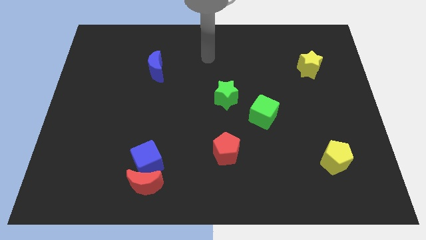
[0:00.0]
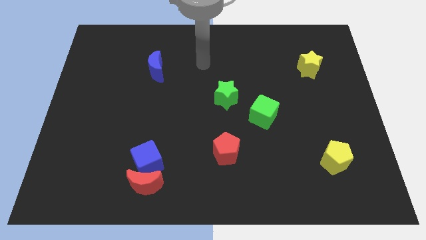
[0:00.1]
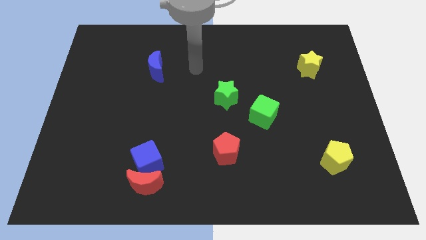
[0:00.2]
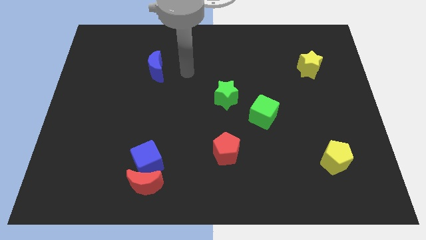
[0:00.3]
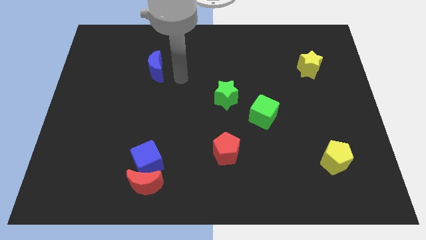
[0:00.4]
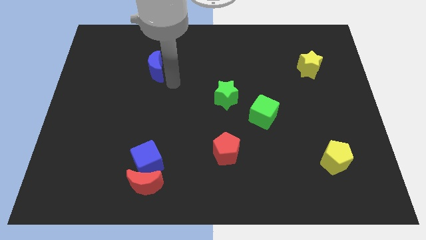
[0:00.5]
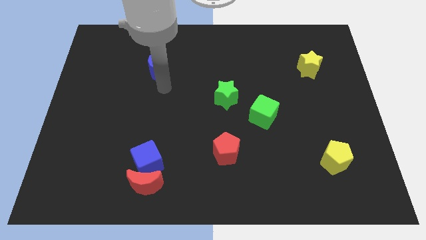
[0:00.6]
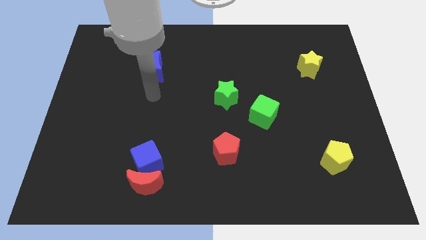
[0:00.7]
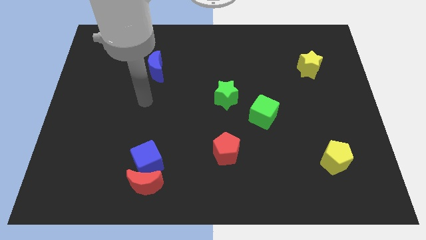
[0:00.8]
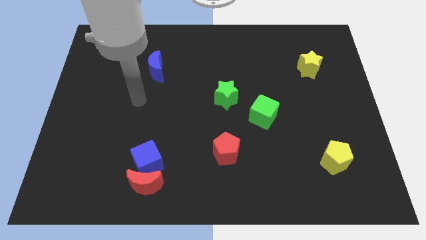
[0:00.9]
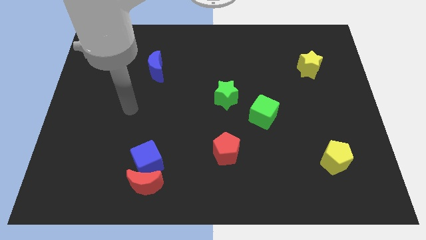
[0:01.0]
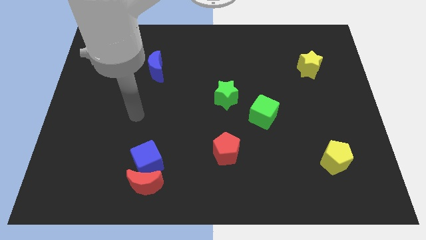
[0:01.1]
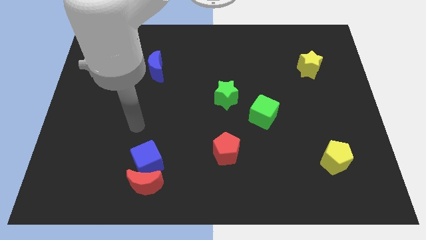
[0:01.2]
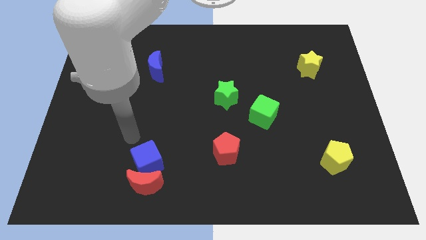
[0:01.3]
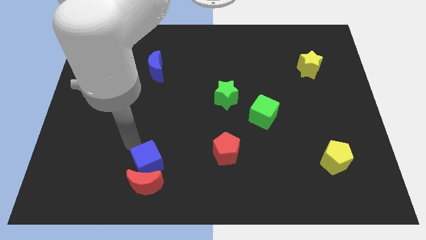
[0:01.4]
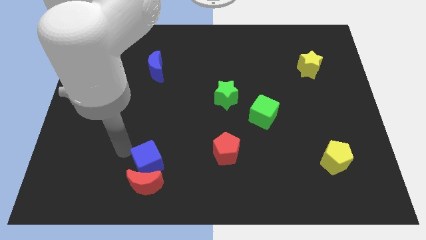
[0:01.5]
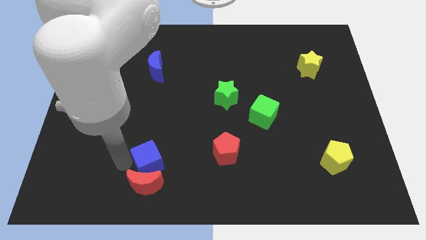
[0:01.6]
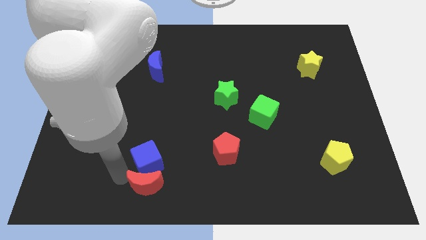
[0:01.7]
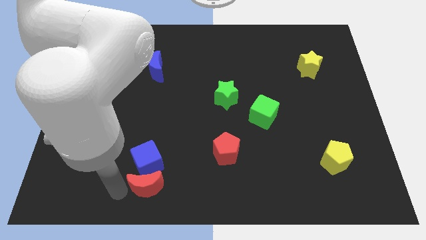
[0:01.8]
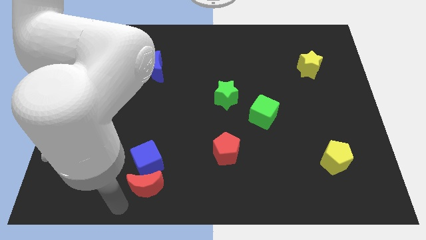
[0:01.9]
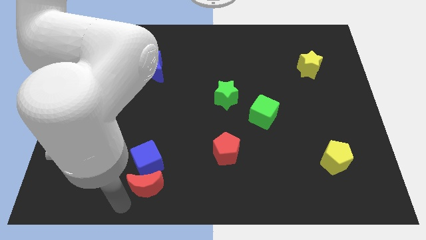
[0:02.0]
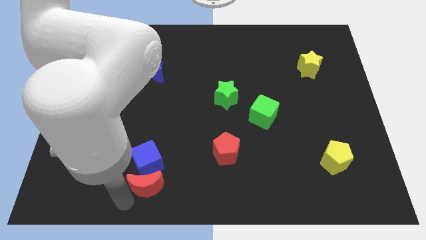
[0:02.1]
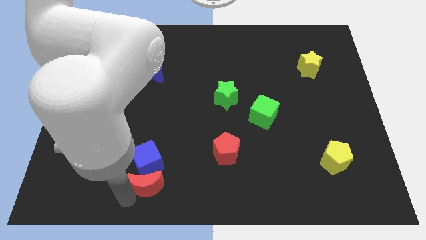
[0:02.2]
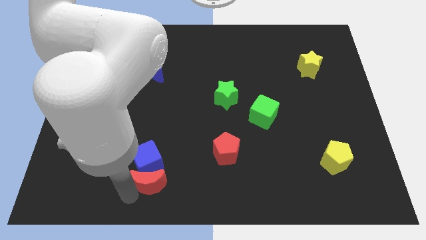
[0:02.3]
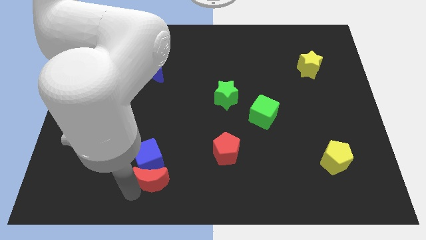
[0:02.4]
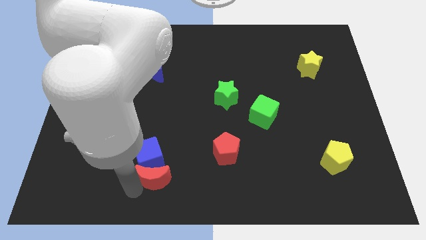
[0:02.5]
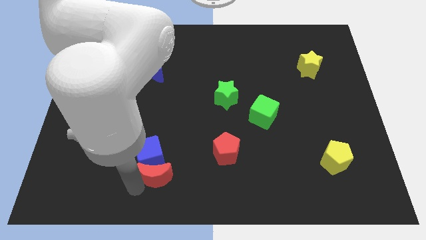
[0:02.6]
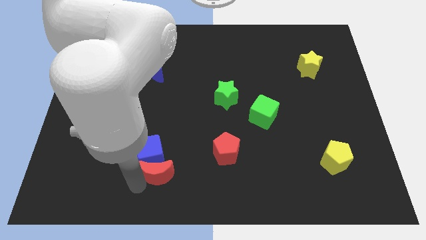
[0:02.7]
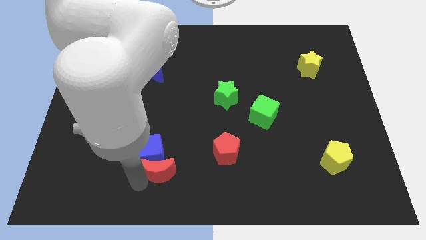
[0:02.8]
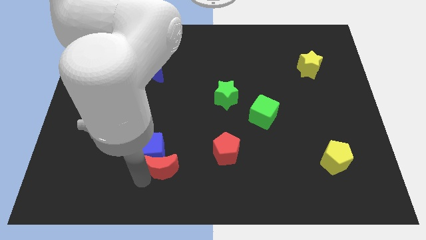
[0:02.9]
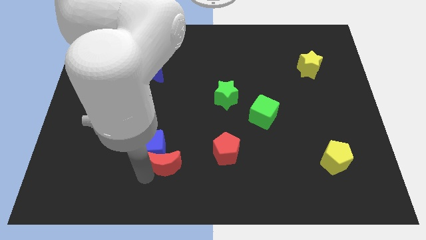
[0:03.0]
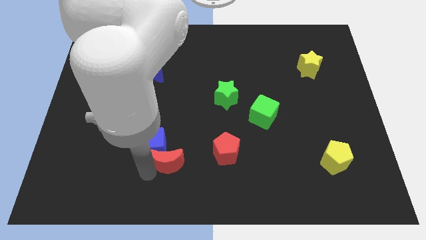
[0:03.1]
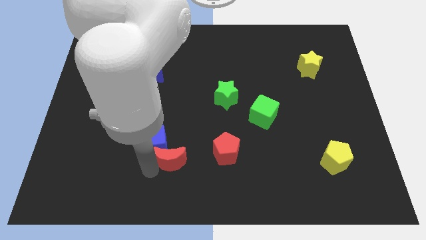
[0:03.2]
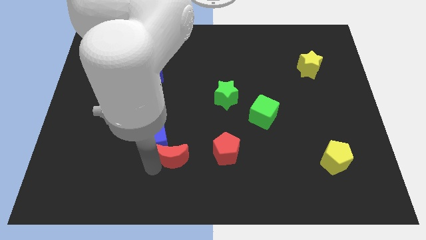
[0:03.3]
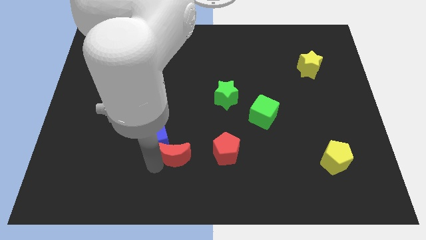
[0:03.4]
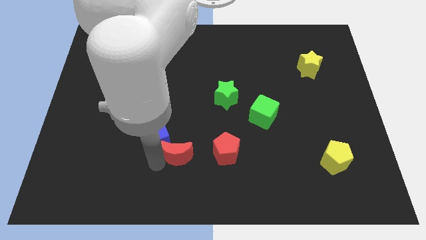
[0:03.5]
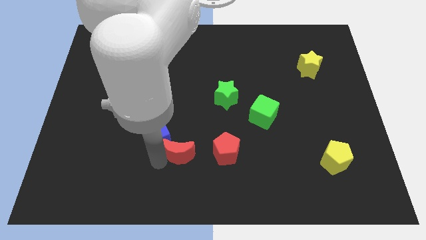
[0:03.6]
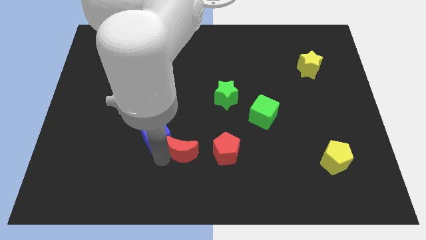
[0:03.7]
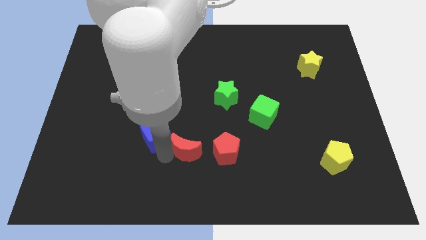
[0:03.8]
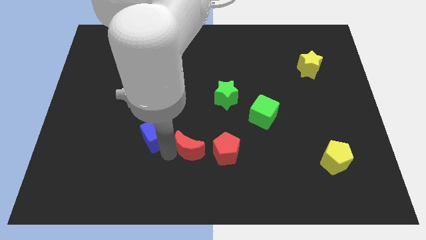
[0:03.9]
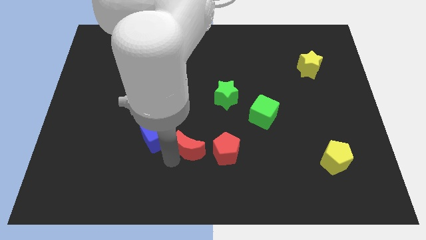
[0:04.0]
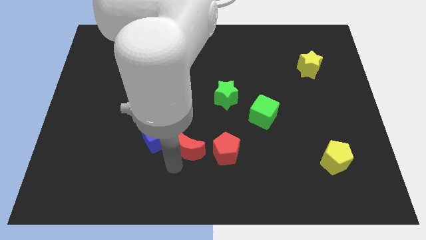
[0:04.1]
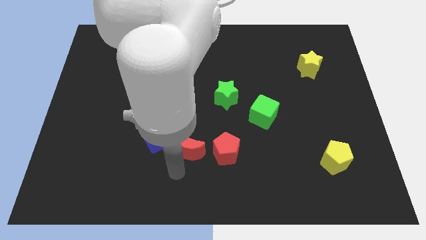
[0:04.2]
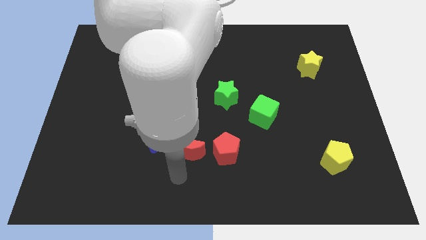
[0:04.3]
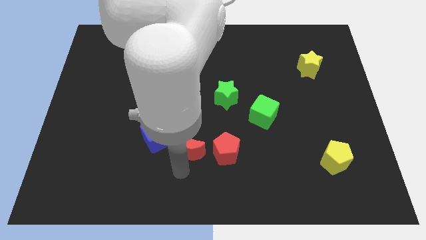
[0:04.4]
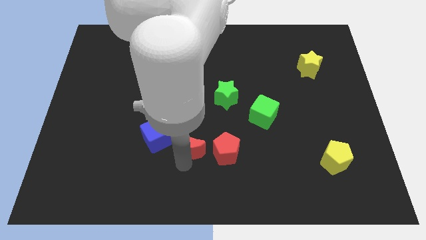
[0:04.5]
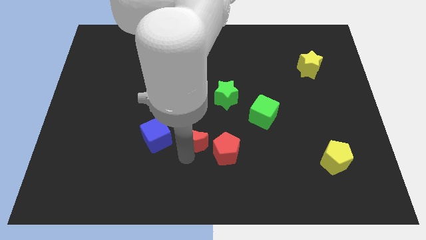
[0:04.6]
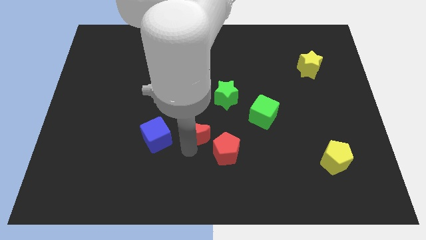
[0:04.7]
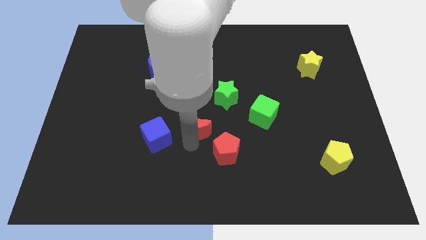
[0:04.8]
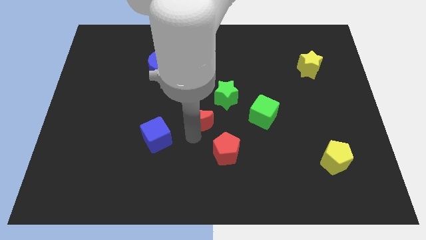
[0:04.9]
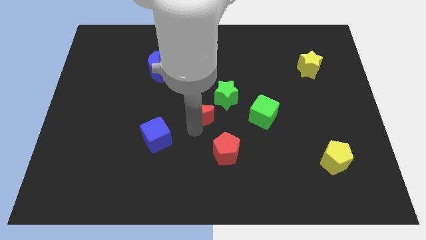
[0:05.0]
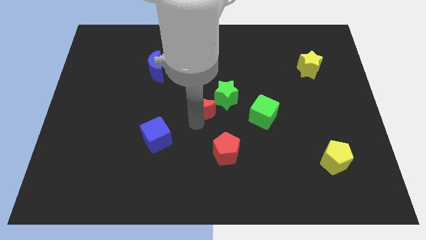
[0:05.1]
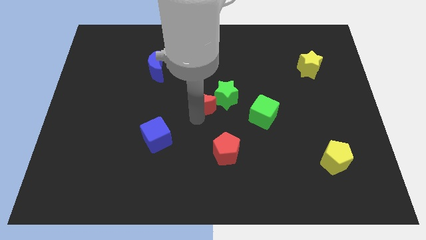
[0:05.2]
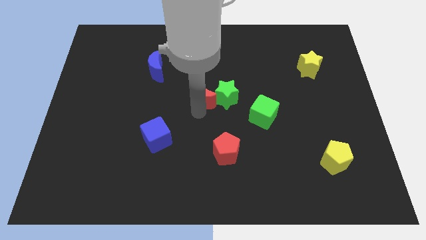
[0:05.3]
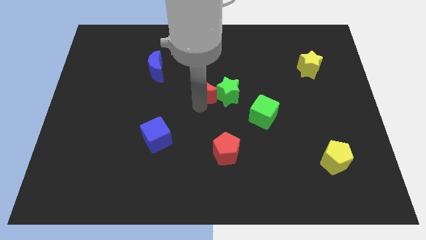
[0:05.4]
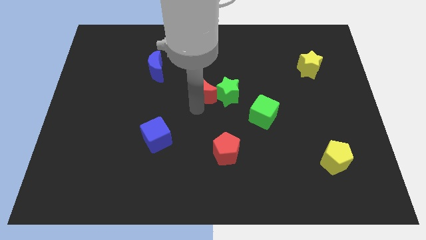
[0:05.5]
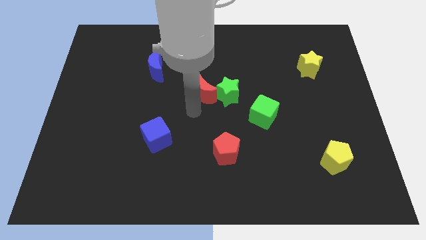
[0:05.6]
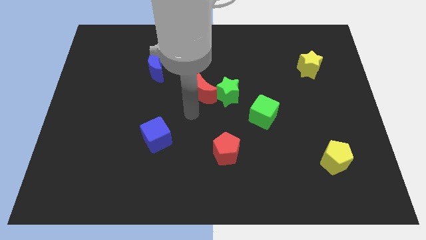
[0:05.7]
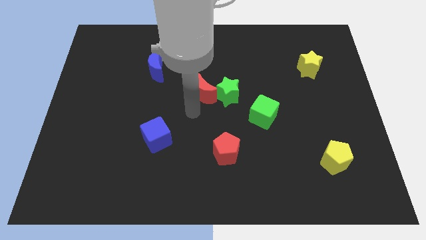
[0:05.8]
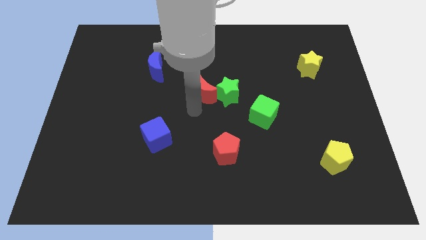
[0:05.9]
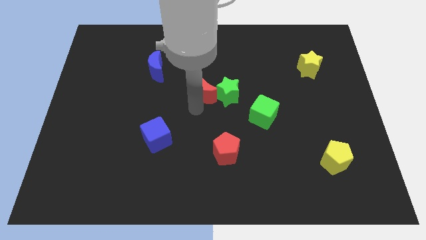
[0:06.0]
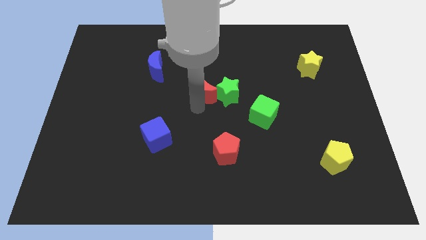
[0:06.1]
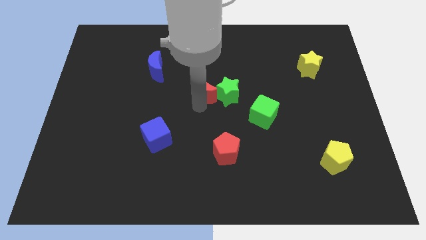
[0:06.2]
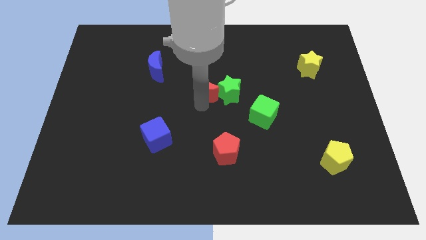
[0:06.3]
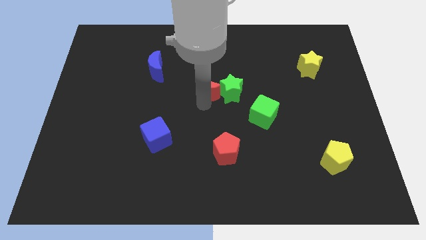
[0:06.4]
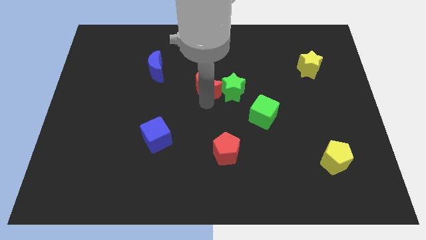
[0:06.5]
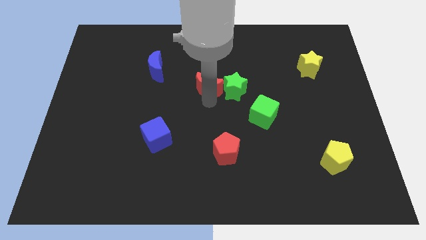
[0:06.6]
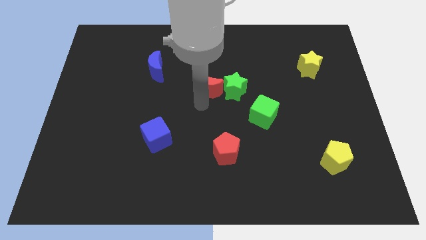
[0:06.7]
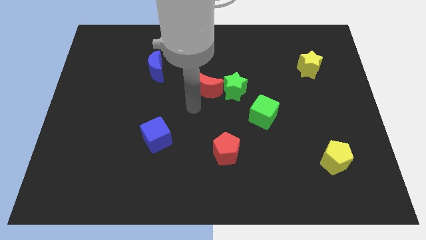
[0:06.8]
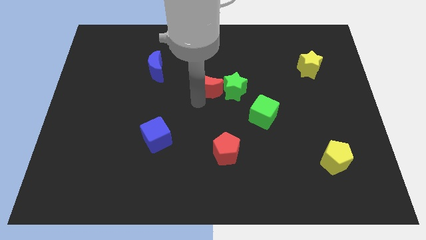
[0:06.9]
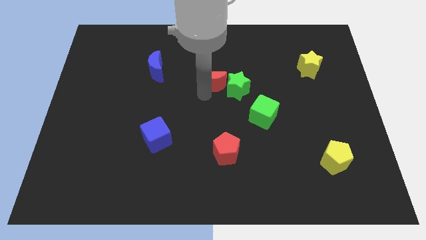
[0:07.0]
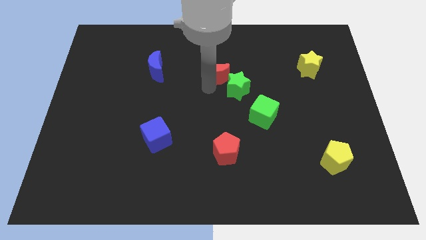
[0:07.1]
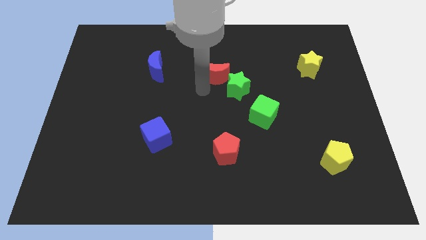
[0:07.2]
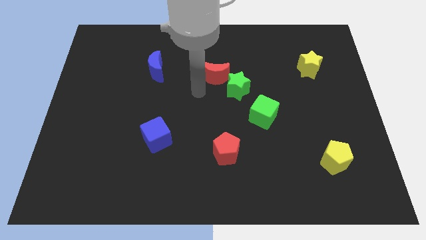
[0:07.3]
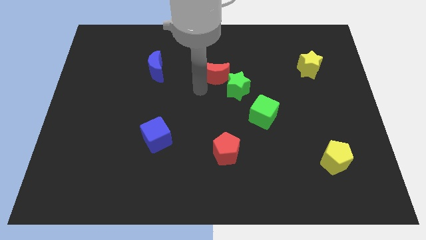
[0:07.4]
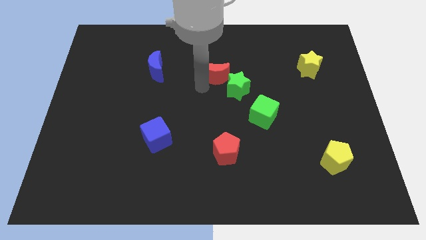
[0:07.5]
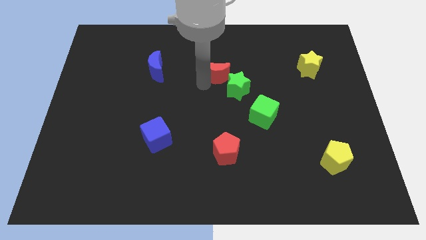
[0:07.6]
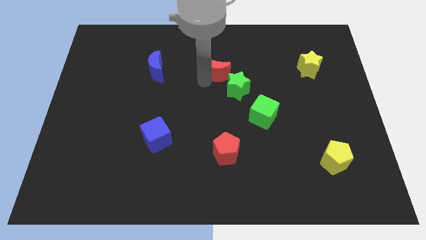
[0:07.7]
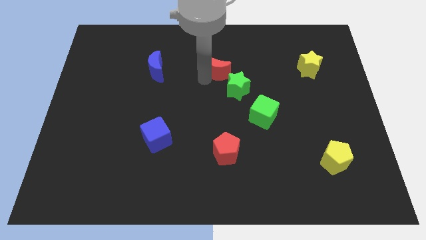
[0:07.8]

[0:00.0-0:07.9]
move the red moon to the top side of the green star
